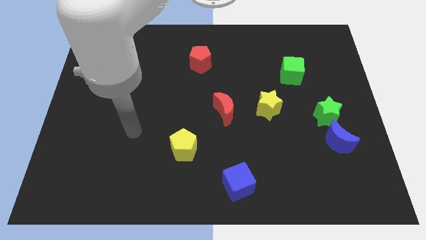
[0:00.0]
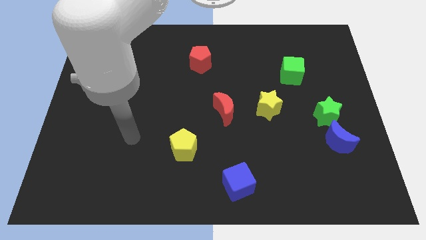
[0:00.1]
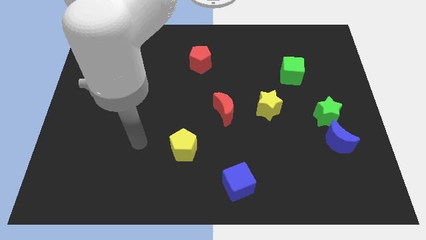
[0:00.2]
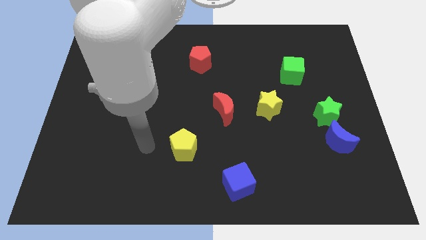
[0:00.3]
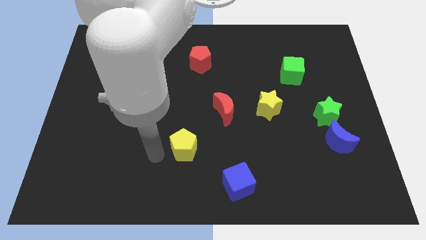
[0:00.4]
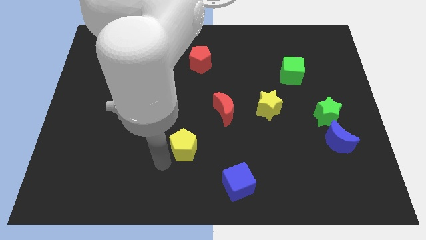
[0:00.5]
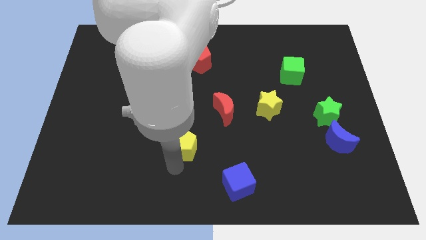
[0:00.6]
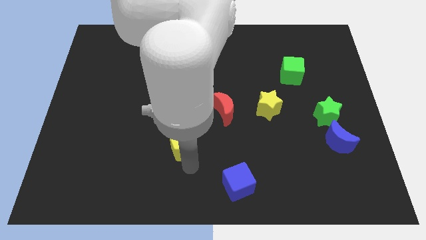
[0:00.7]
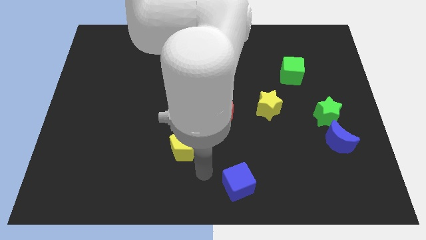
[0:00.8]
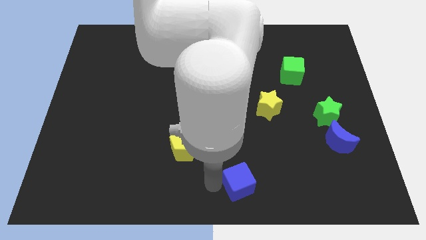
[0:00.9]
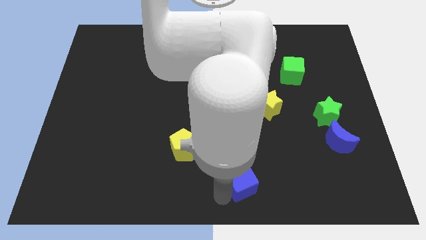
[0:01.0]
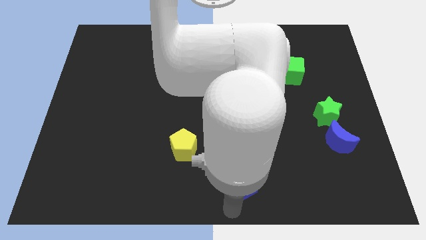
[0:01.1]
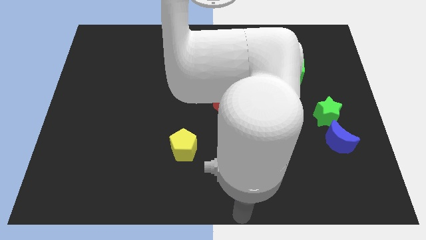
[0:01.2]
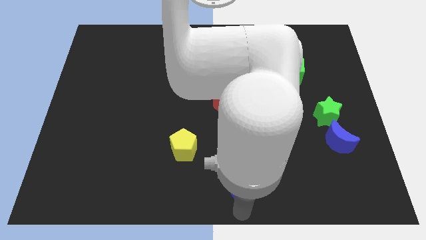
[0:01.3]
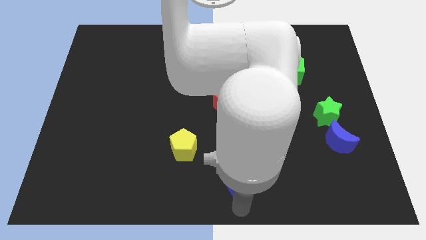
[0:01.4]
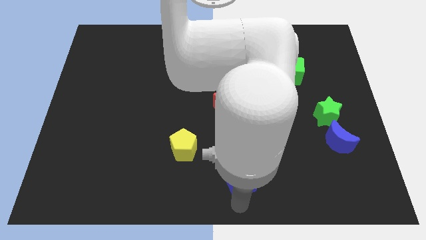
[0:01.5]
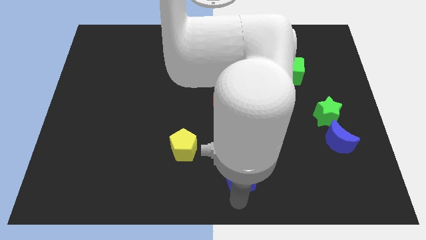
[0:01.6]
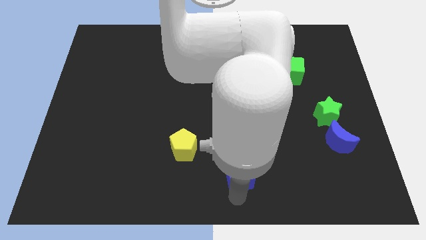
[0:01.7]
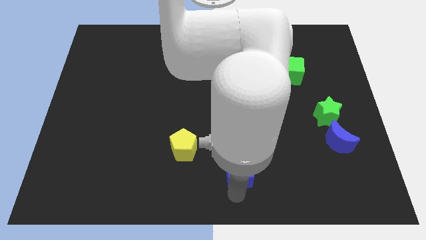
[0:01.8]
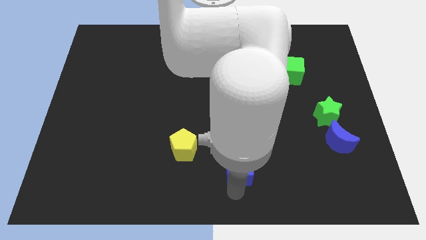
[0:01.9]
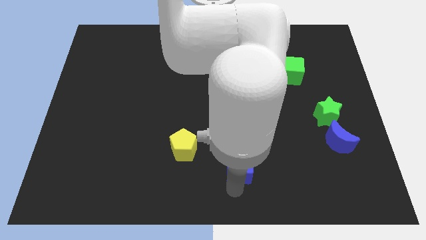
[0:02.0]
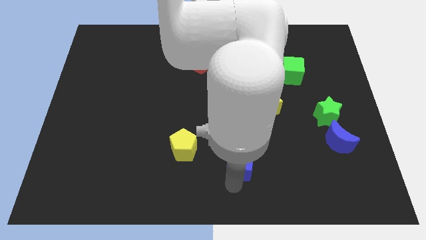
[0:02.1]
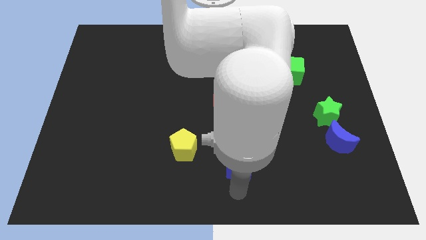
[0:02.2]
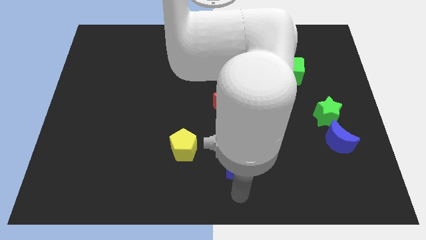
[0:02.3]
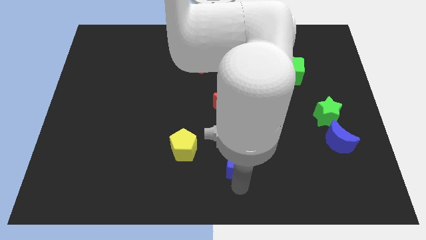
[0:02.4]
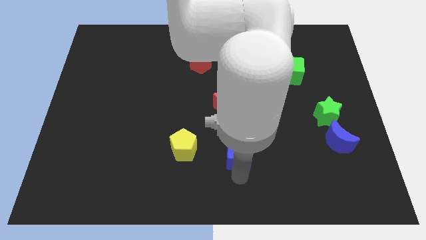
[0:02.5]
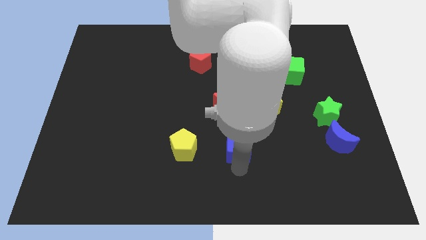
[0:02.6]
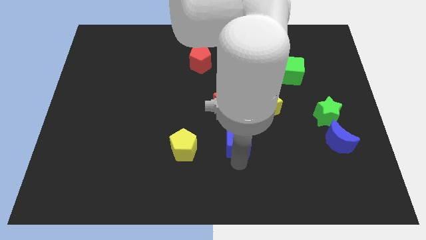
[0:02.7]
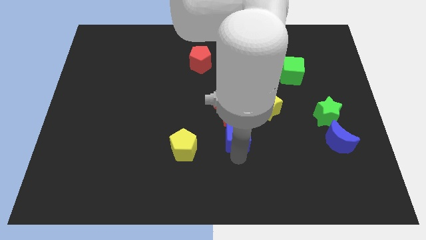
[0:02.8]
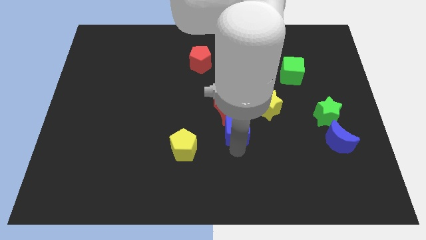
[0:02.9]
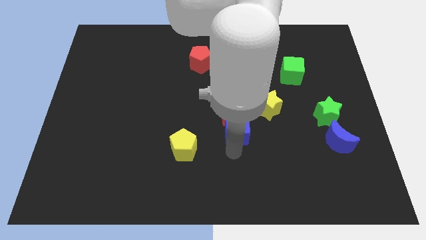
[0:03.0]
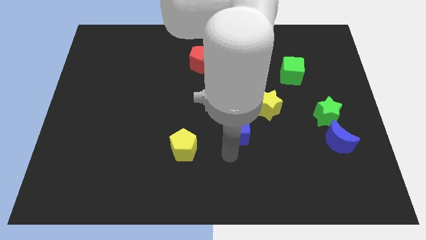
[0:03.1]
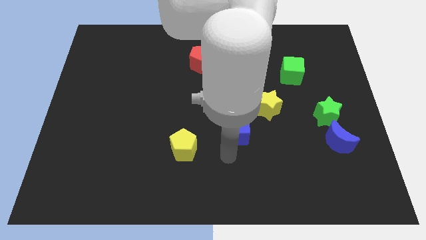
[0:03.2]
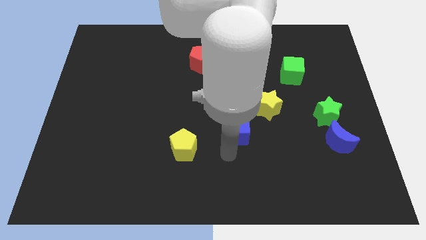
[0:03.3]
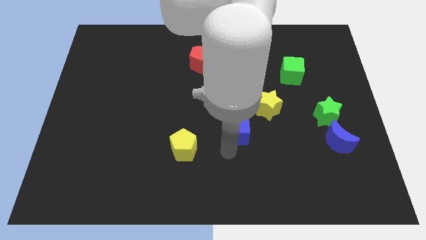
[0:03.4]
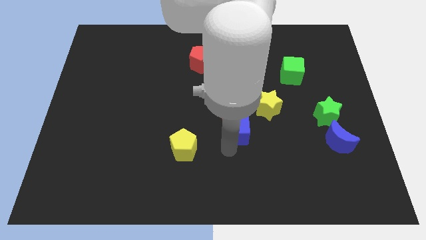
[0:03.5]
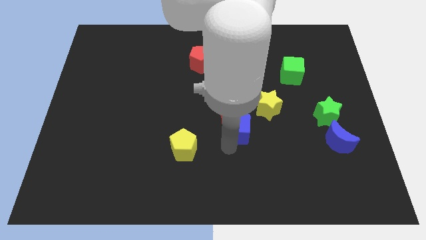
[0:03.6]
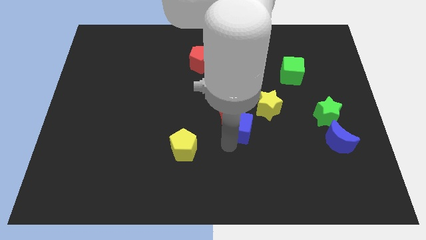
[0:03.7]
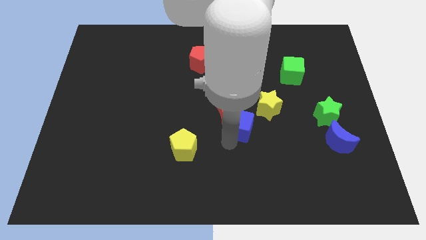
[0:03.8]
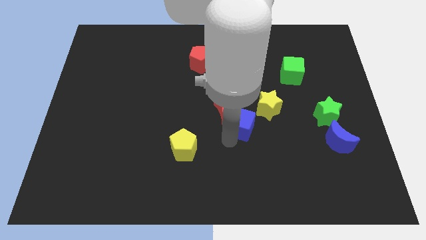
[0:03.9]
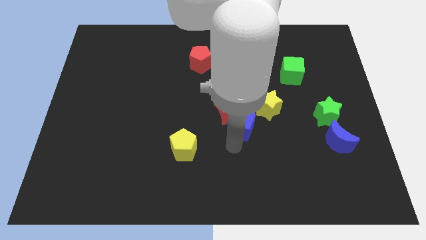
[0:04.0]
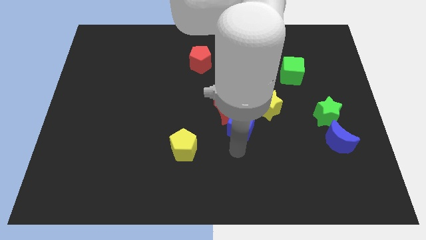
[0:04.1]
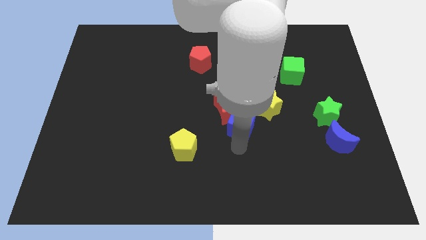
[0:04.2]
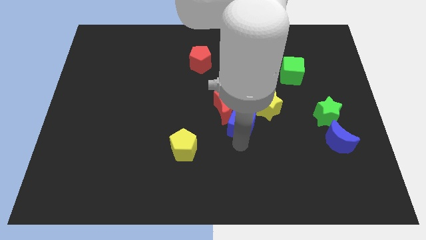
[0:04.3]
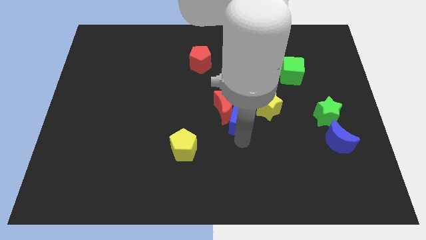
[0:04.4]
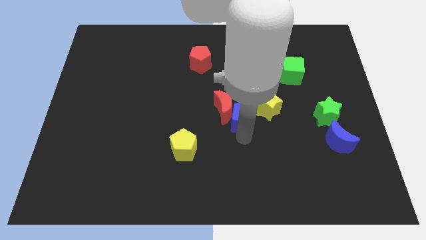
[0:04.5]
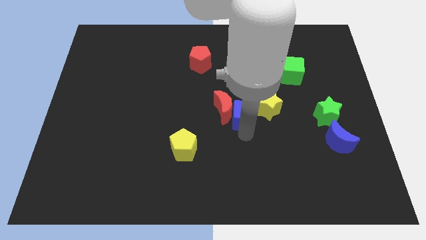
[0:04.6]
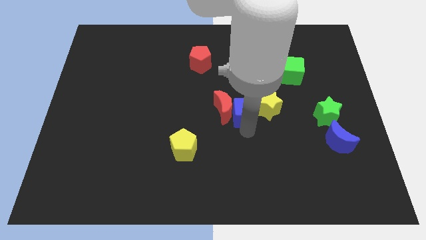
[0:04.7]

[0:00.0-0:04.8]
slide the blue cube to the top right of the red moon

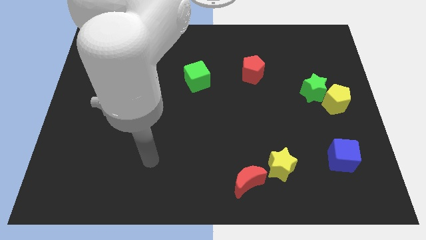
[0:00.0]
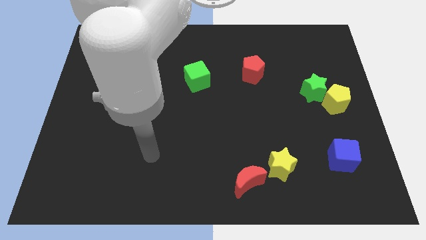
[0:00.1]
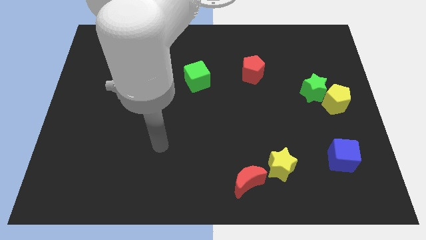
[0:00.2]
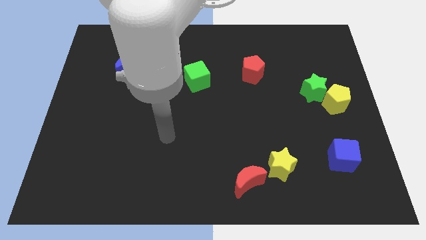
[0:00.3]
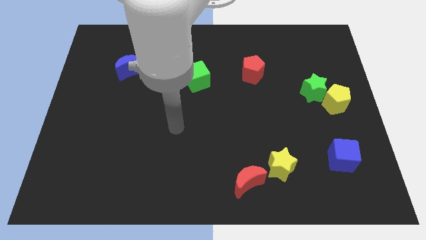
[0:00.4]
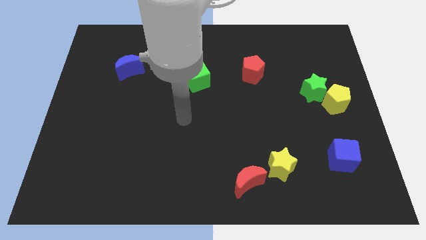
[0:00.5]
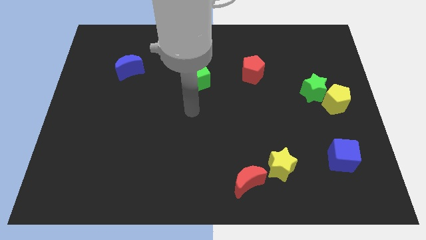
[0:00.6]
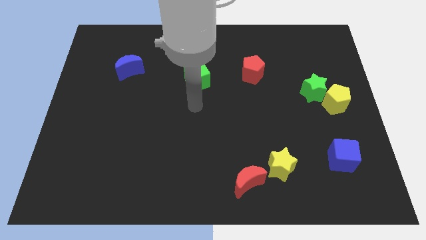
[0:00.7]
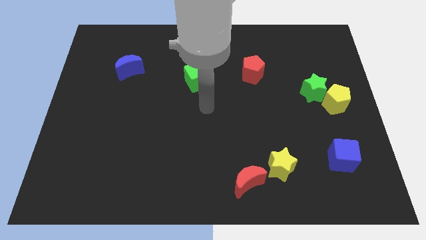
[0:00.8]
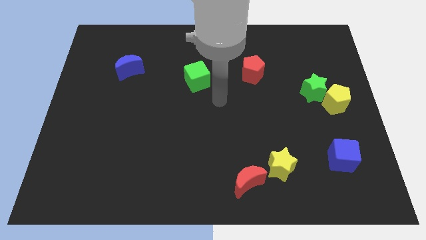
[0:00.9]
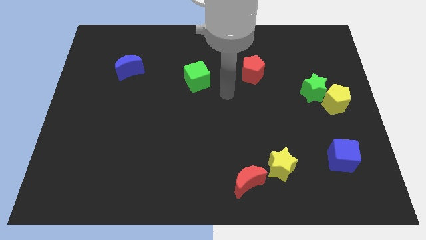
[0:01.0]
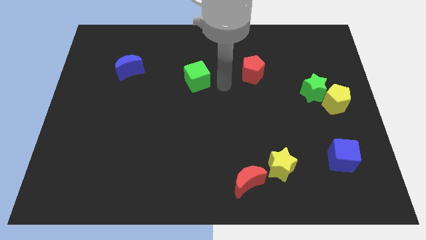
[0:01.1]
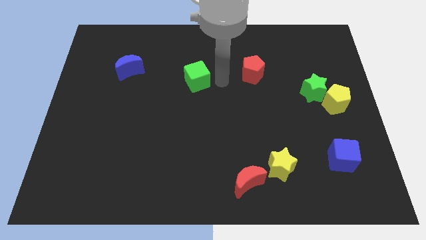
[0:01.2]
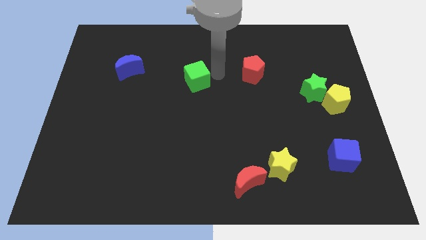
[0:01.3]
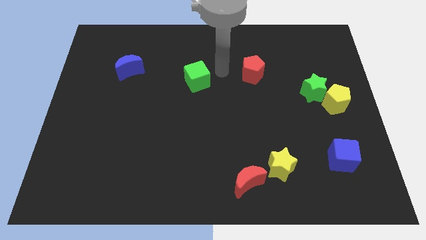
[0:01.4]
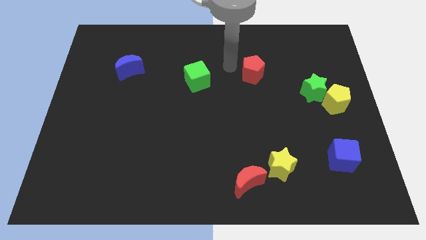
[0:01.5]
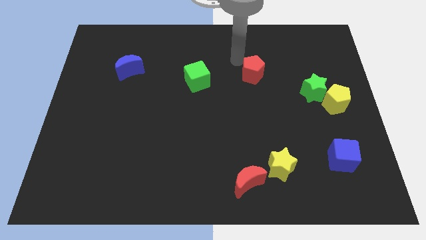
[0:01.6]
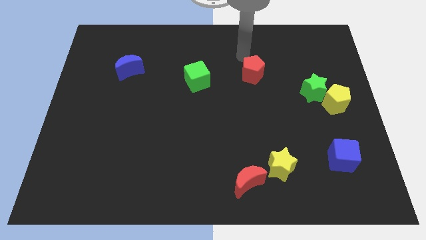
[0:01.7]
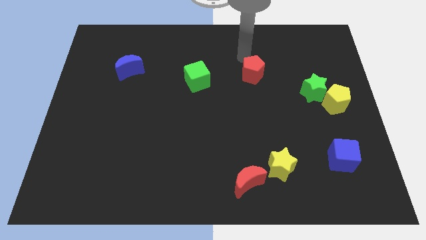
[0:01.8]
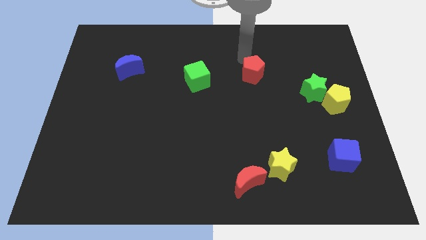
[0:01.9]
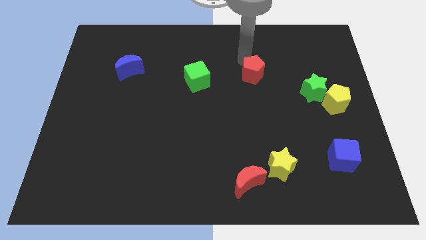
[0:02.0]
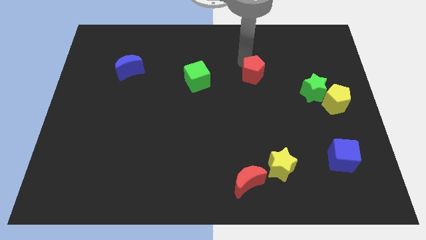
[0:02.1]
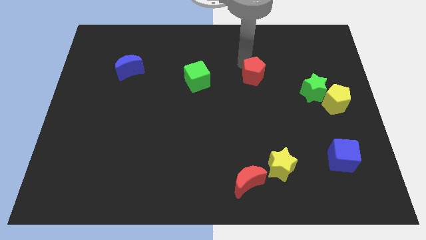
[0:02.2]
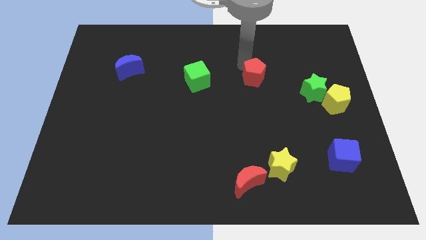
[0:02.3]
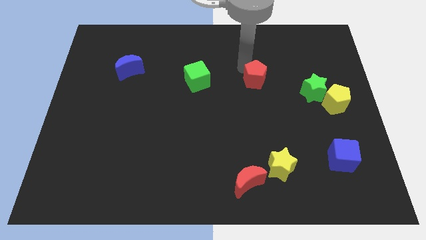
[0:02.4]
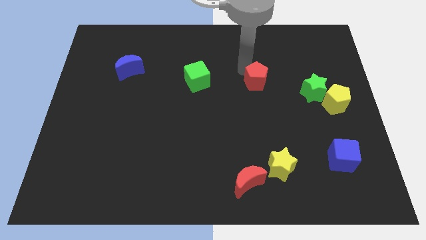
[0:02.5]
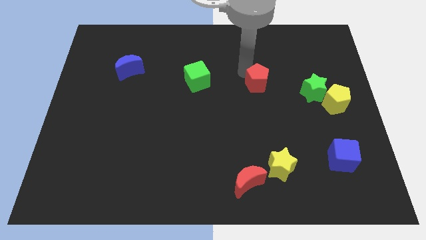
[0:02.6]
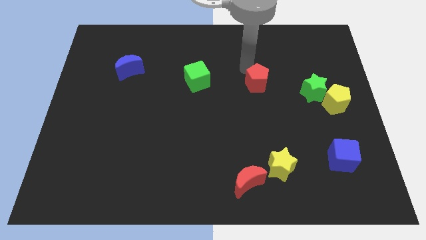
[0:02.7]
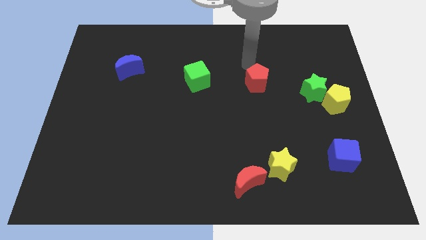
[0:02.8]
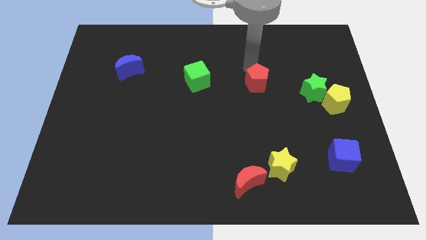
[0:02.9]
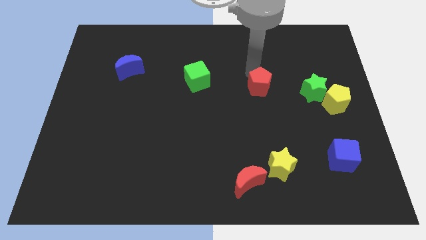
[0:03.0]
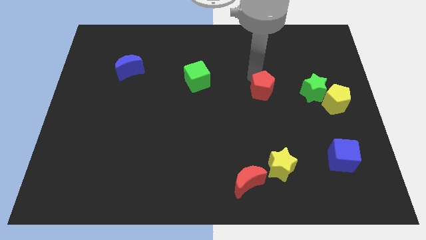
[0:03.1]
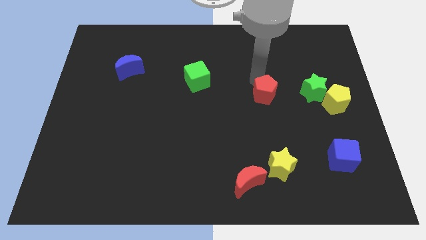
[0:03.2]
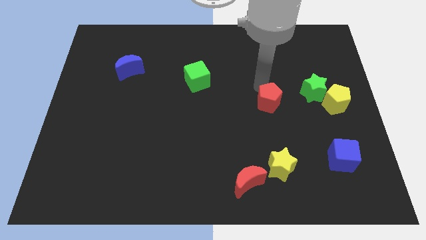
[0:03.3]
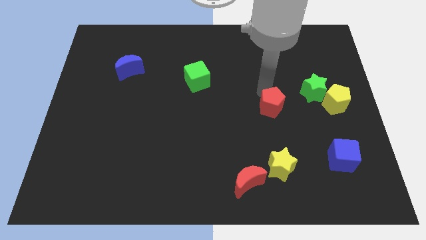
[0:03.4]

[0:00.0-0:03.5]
move the red pentagon to the top of the yellow star
